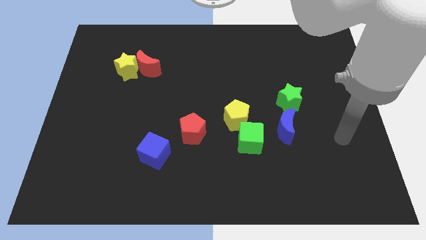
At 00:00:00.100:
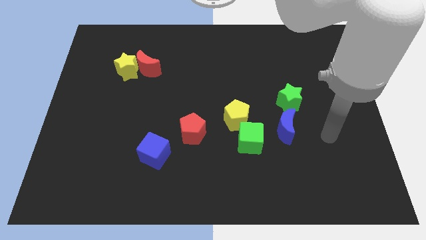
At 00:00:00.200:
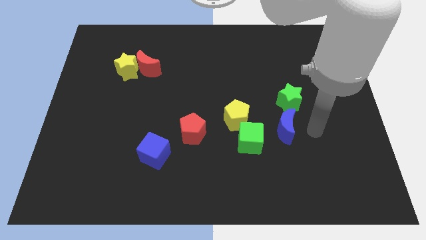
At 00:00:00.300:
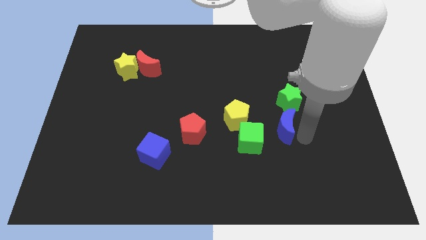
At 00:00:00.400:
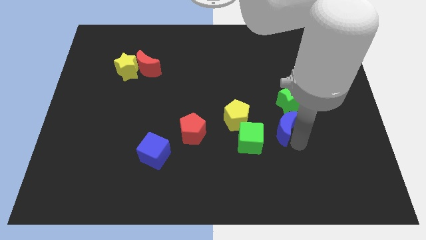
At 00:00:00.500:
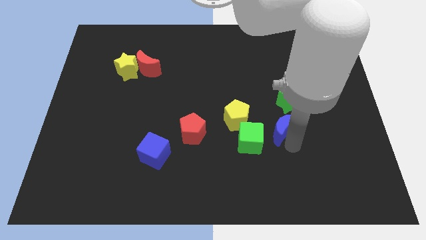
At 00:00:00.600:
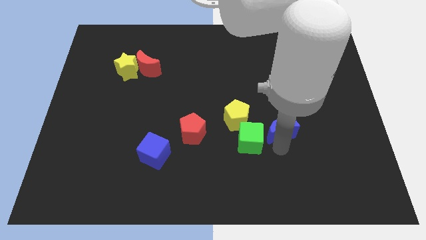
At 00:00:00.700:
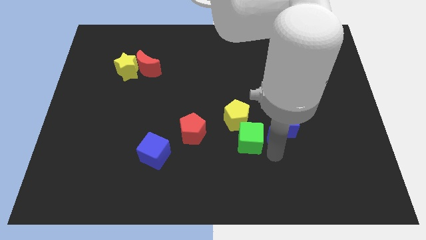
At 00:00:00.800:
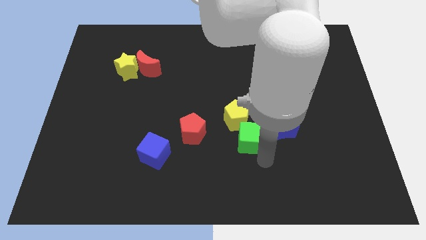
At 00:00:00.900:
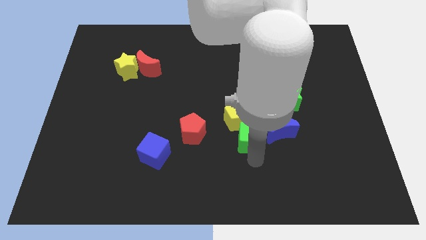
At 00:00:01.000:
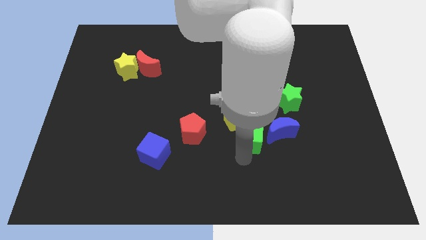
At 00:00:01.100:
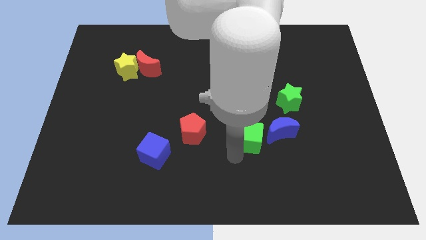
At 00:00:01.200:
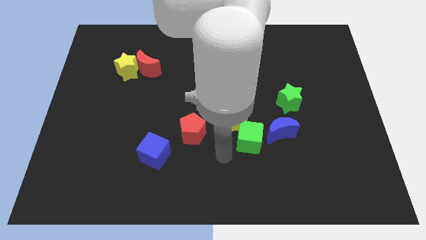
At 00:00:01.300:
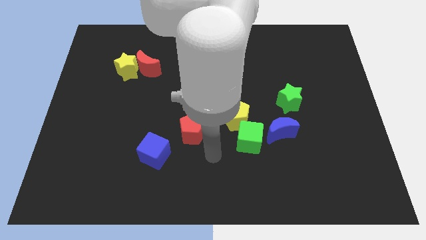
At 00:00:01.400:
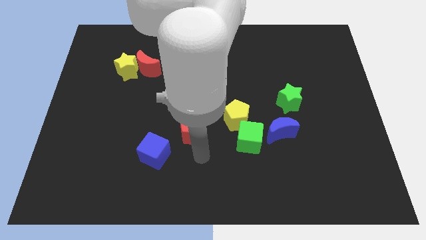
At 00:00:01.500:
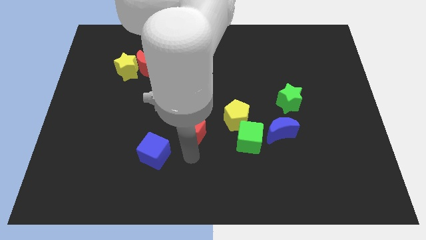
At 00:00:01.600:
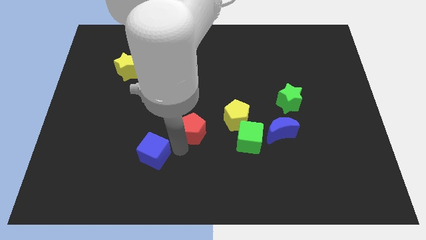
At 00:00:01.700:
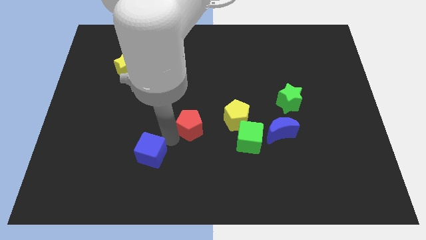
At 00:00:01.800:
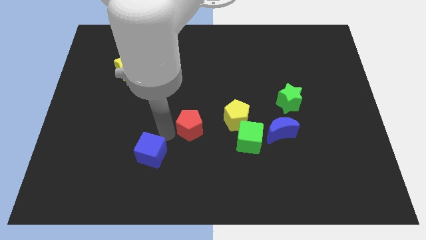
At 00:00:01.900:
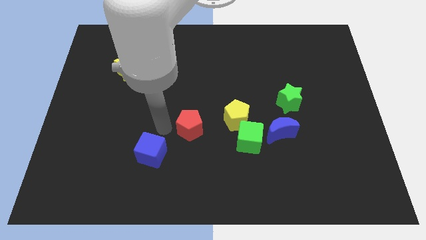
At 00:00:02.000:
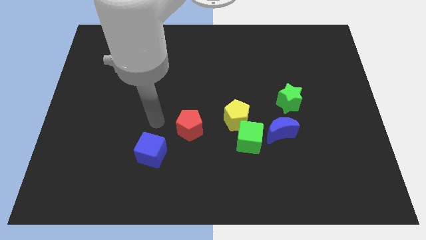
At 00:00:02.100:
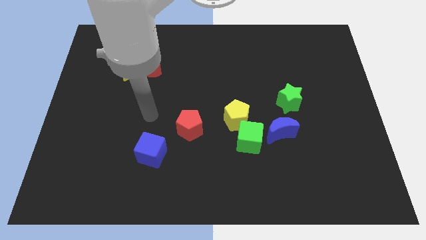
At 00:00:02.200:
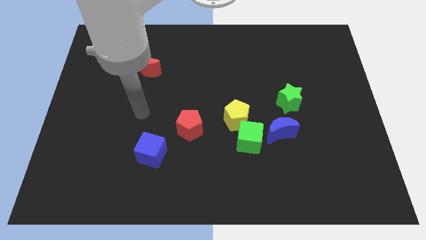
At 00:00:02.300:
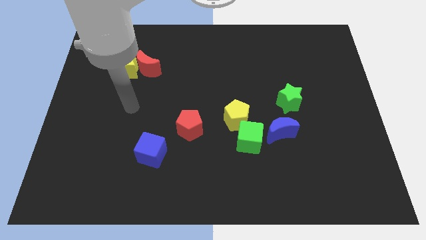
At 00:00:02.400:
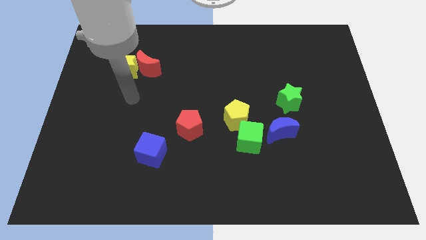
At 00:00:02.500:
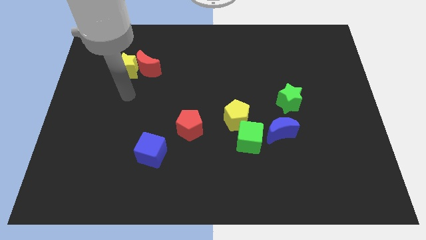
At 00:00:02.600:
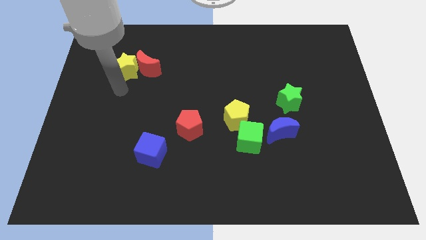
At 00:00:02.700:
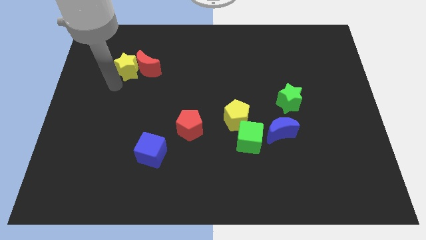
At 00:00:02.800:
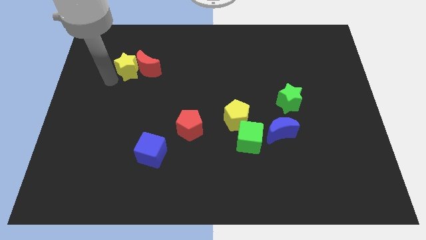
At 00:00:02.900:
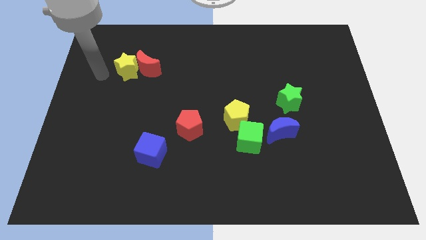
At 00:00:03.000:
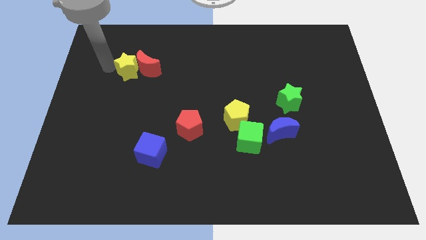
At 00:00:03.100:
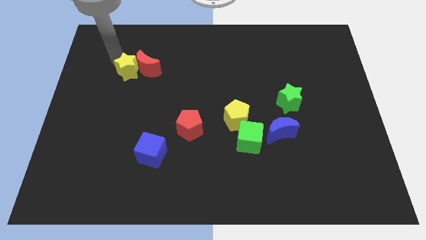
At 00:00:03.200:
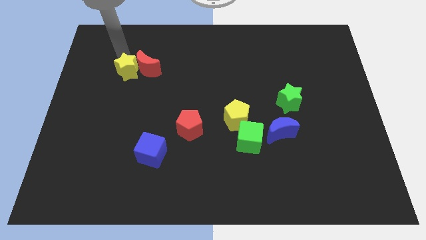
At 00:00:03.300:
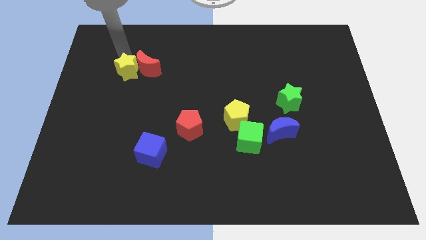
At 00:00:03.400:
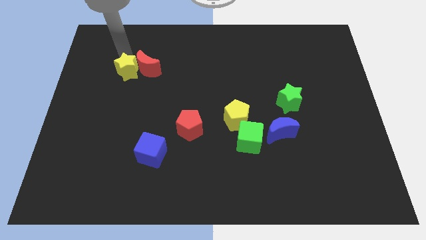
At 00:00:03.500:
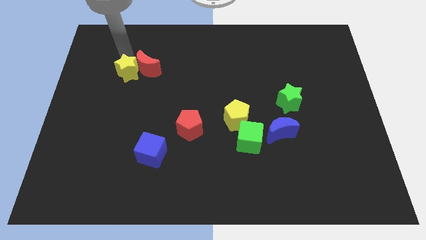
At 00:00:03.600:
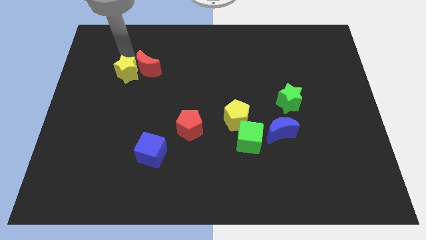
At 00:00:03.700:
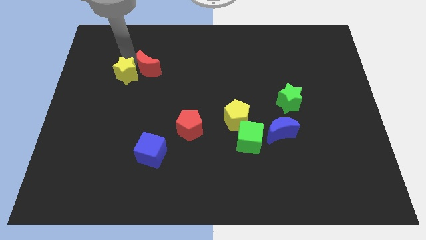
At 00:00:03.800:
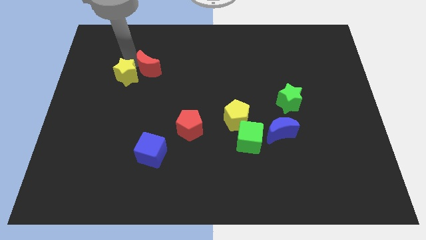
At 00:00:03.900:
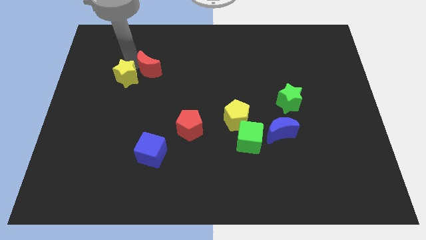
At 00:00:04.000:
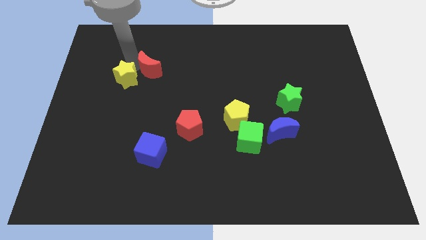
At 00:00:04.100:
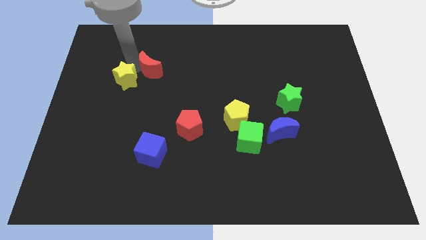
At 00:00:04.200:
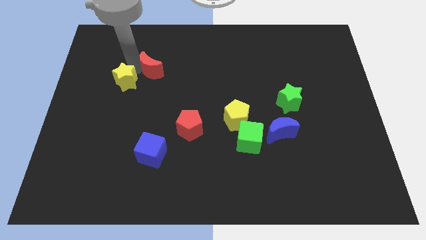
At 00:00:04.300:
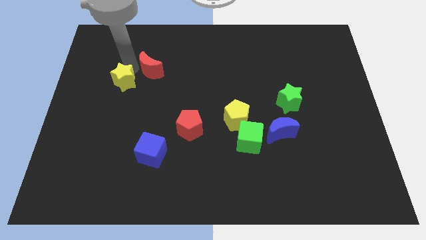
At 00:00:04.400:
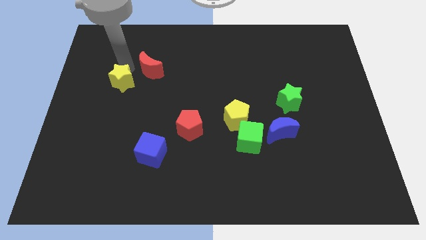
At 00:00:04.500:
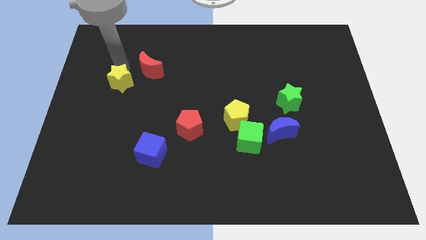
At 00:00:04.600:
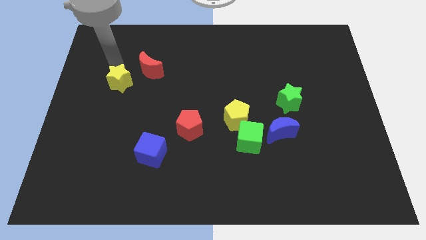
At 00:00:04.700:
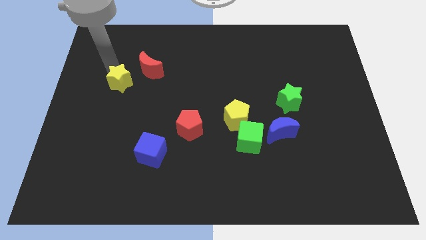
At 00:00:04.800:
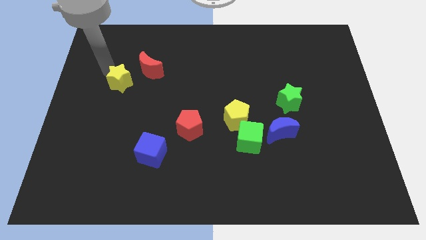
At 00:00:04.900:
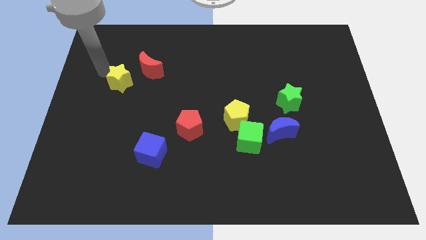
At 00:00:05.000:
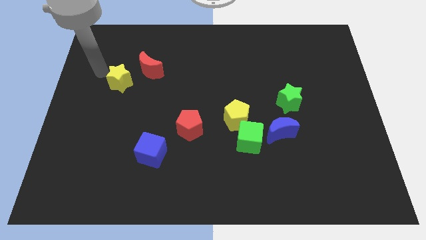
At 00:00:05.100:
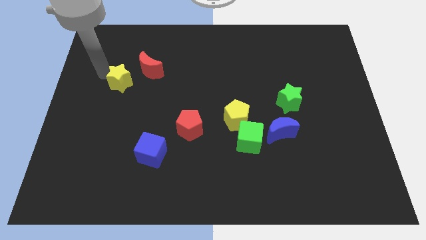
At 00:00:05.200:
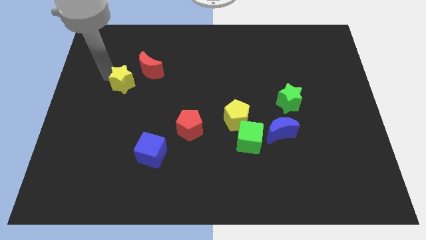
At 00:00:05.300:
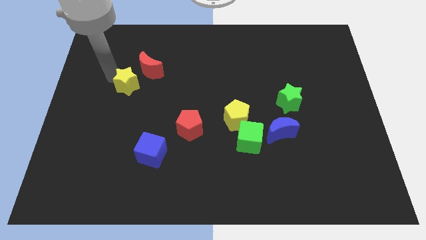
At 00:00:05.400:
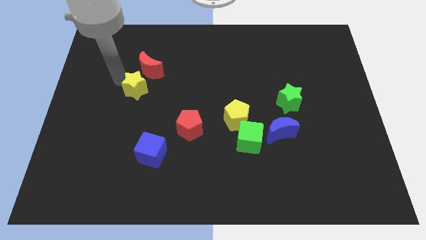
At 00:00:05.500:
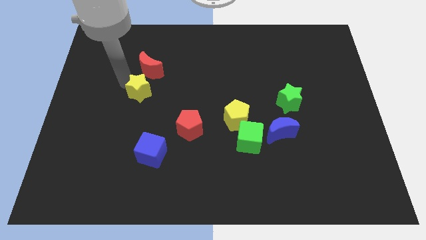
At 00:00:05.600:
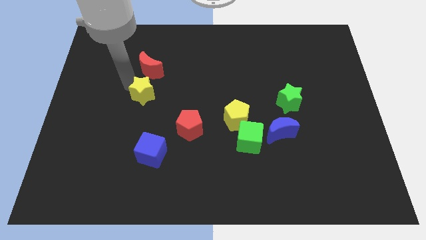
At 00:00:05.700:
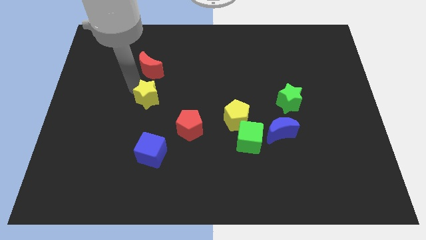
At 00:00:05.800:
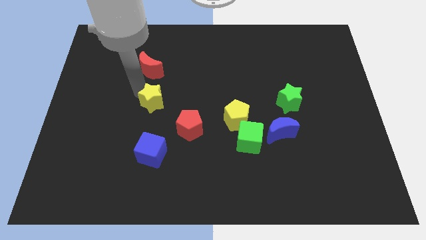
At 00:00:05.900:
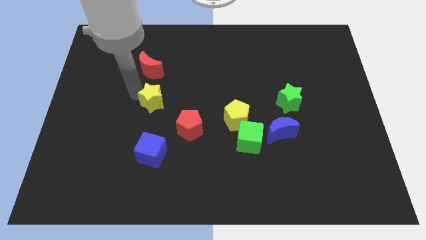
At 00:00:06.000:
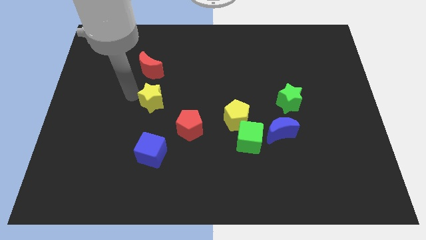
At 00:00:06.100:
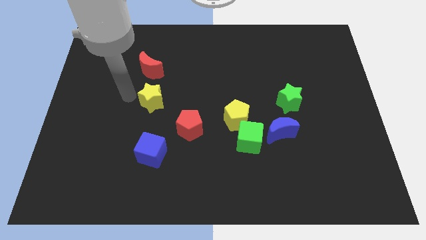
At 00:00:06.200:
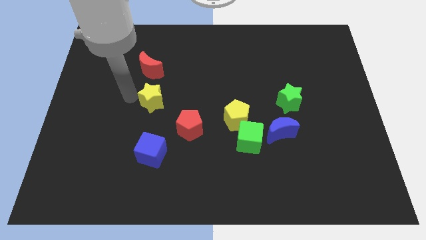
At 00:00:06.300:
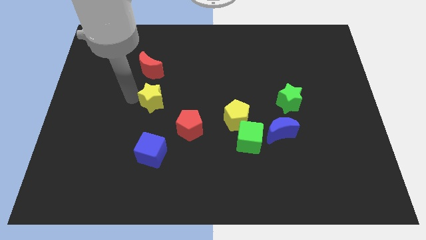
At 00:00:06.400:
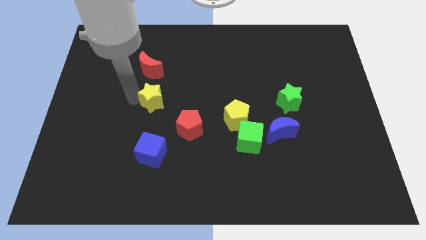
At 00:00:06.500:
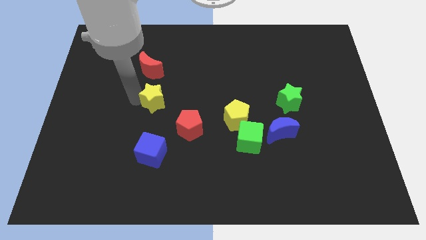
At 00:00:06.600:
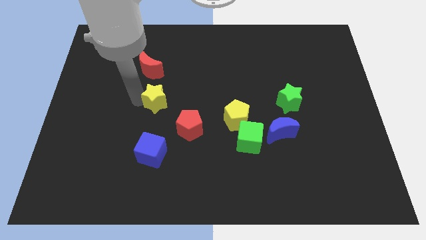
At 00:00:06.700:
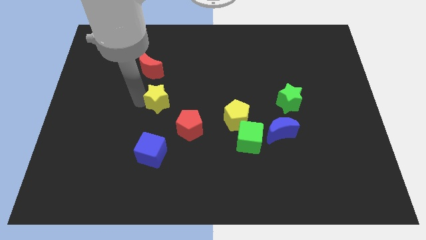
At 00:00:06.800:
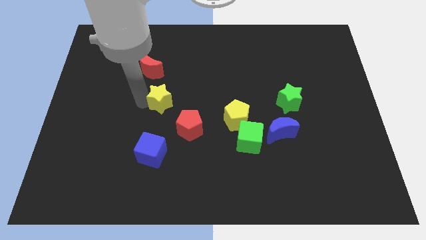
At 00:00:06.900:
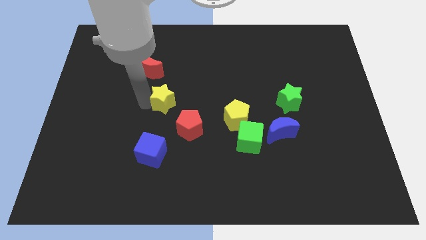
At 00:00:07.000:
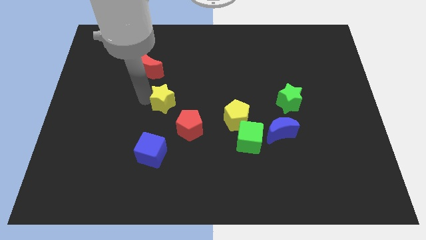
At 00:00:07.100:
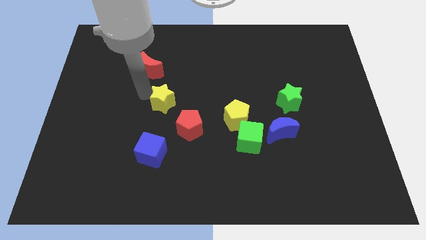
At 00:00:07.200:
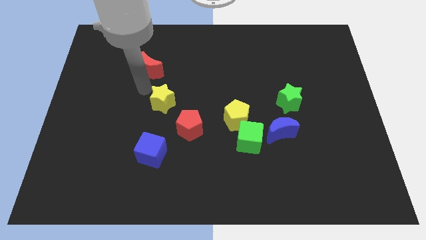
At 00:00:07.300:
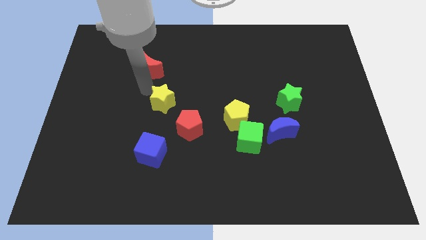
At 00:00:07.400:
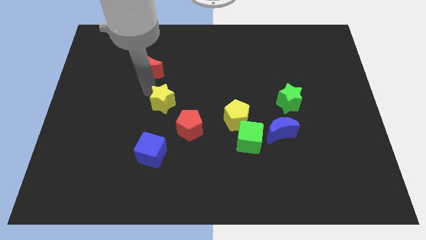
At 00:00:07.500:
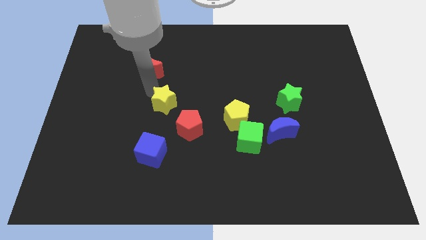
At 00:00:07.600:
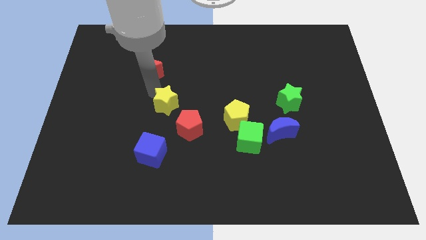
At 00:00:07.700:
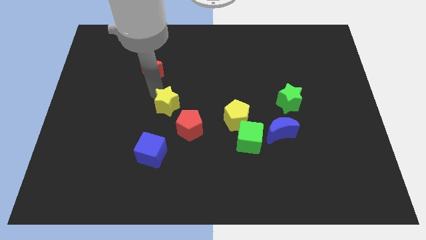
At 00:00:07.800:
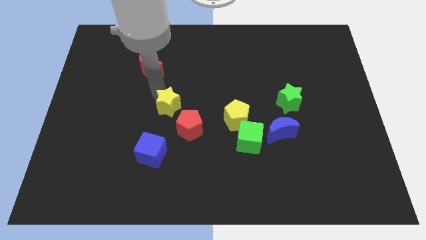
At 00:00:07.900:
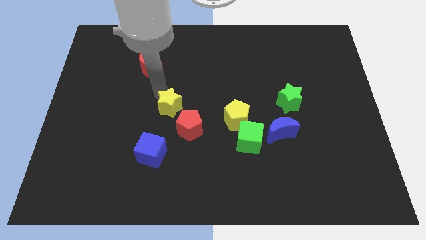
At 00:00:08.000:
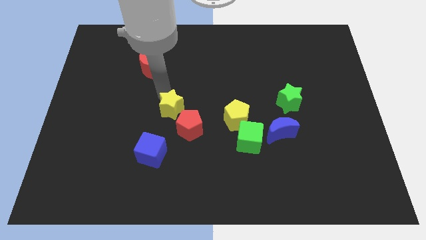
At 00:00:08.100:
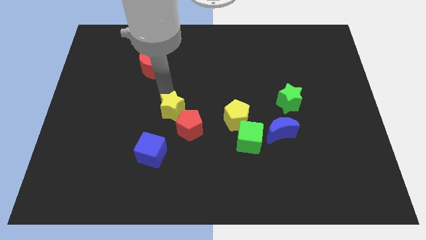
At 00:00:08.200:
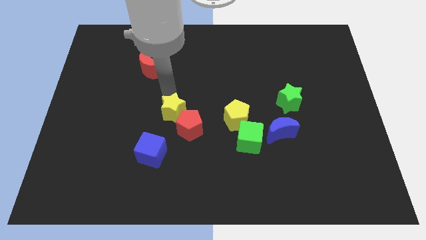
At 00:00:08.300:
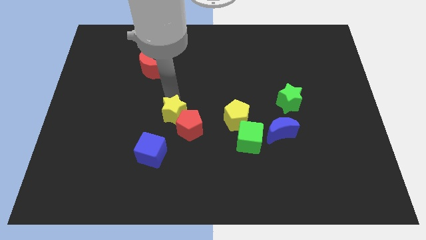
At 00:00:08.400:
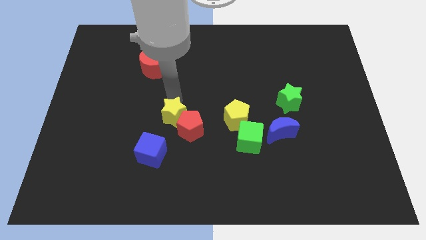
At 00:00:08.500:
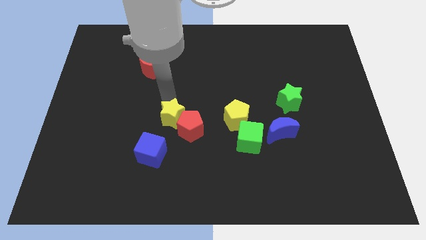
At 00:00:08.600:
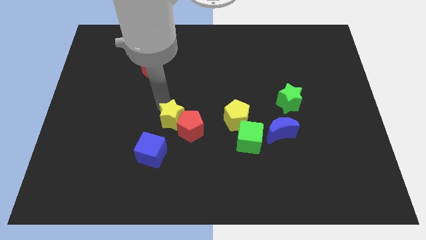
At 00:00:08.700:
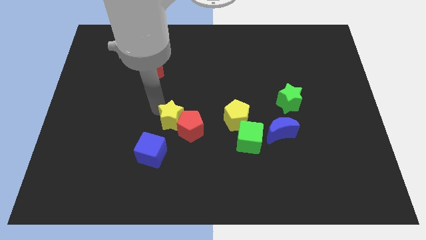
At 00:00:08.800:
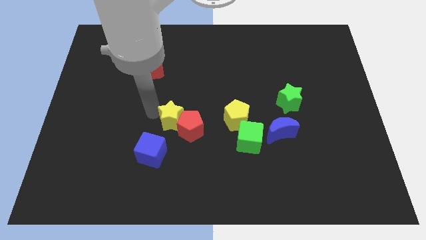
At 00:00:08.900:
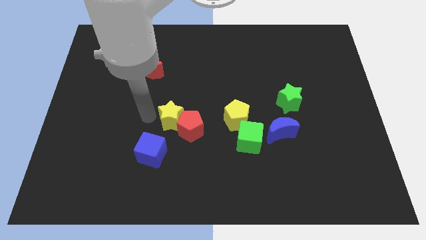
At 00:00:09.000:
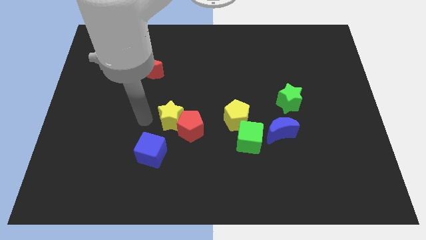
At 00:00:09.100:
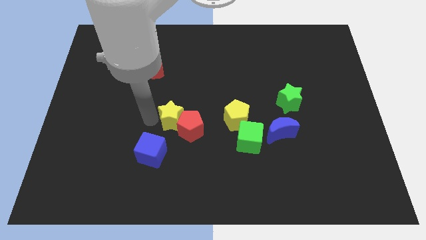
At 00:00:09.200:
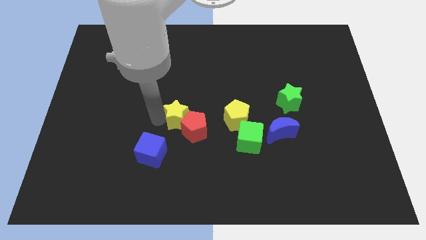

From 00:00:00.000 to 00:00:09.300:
push the yellow star down and then right
